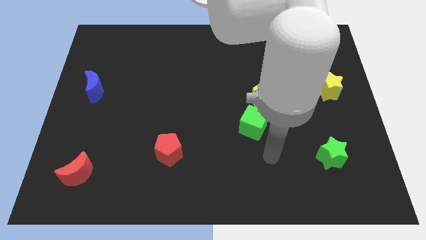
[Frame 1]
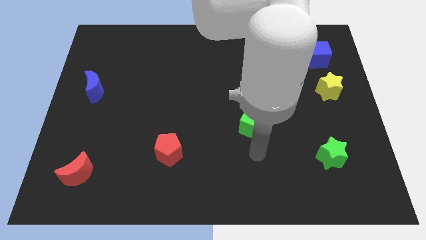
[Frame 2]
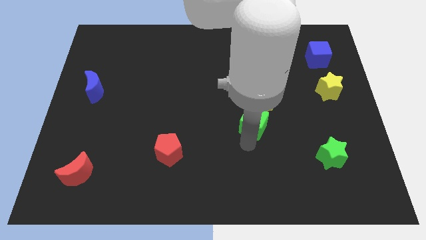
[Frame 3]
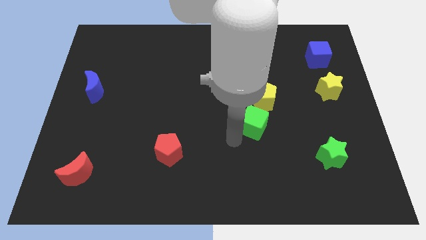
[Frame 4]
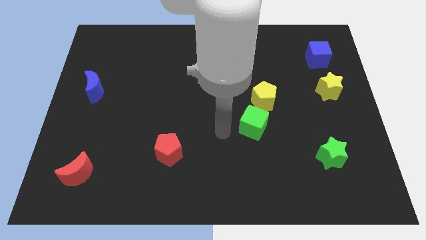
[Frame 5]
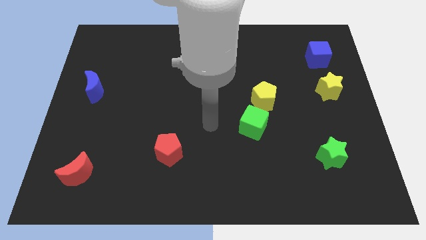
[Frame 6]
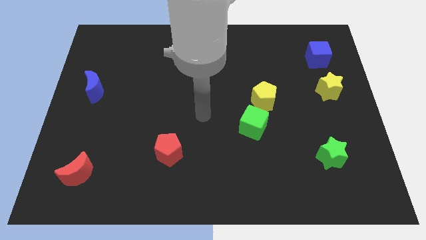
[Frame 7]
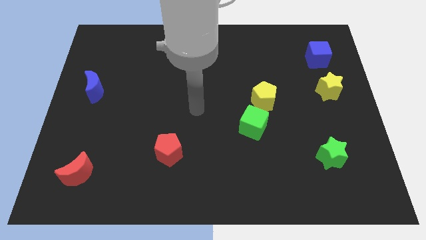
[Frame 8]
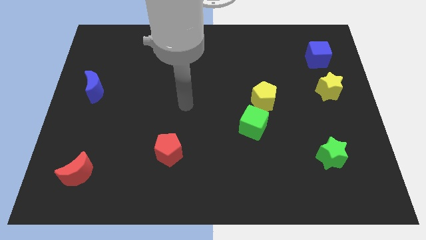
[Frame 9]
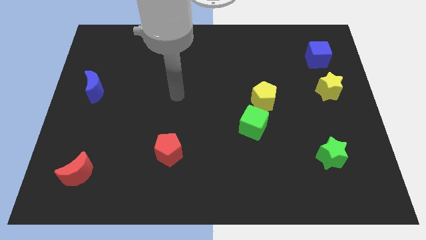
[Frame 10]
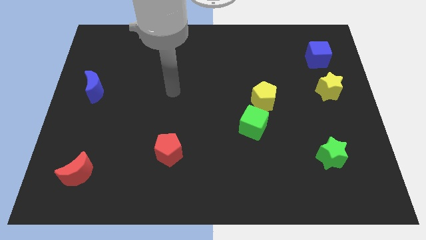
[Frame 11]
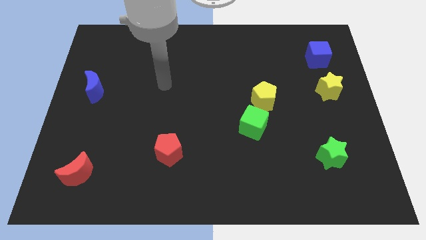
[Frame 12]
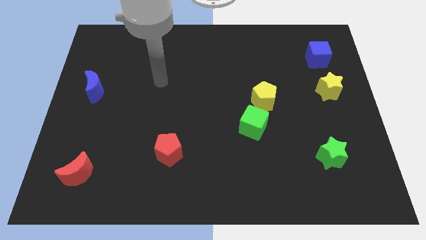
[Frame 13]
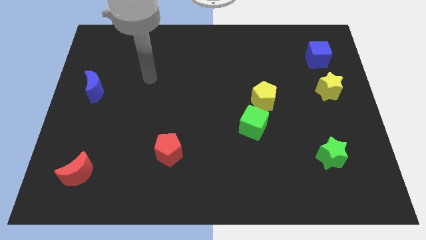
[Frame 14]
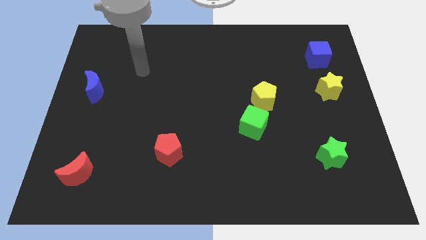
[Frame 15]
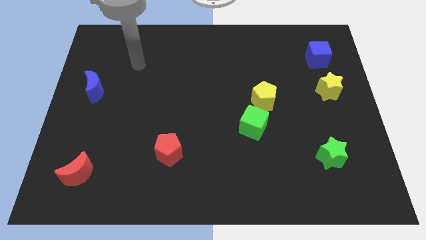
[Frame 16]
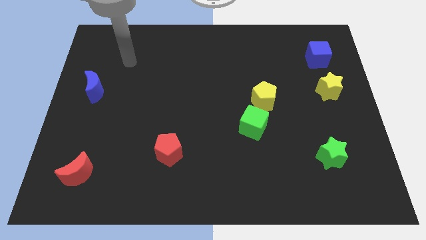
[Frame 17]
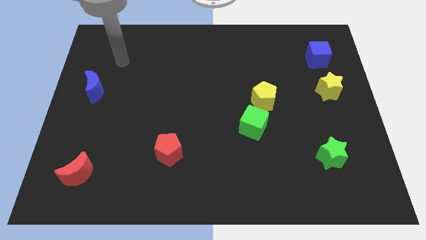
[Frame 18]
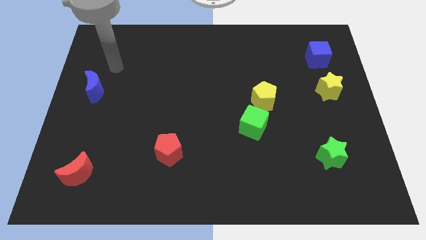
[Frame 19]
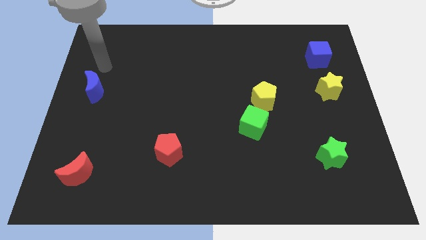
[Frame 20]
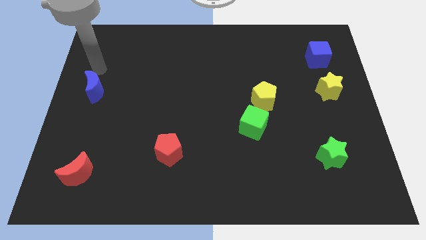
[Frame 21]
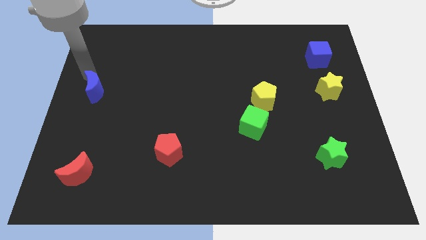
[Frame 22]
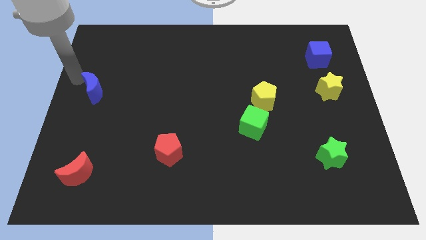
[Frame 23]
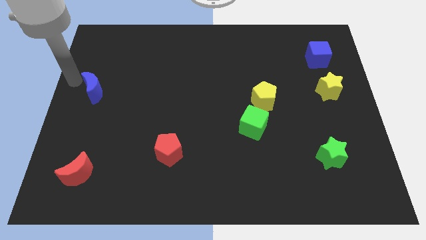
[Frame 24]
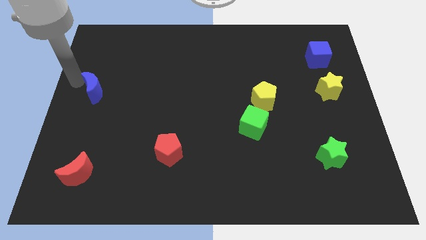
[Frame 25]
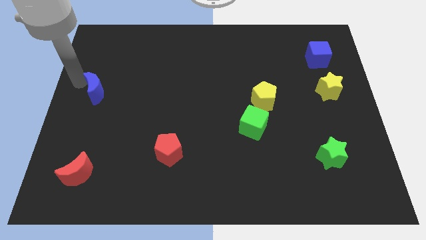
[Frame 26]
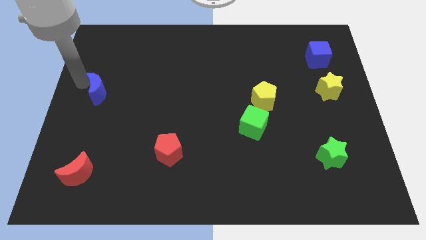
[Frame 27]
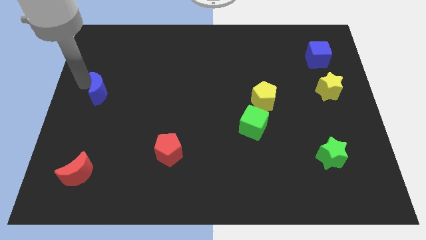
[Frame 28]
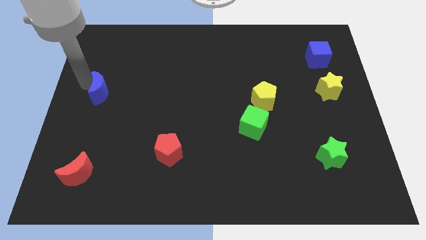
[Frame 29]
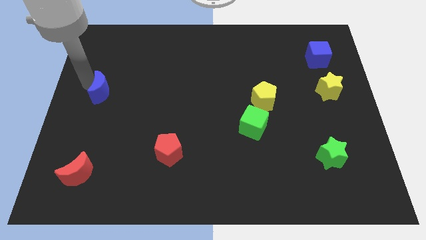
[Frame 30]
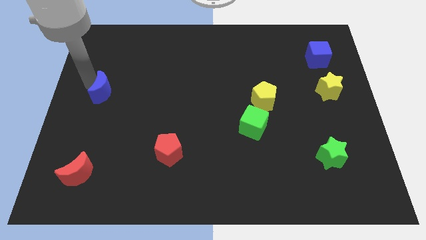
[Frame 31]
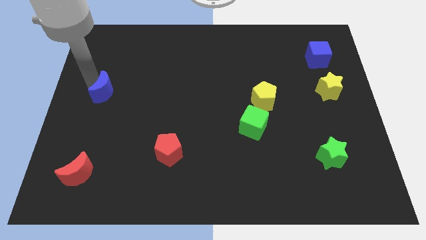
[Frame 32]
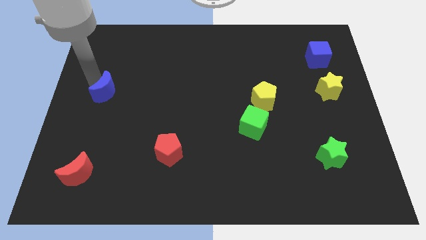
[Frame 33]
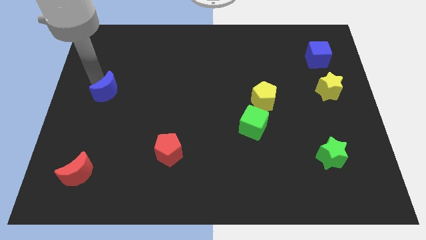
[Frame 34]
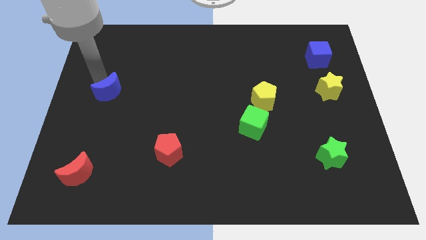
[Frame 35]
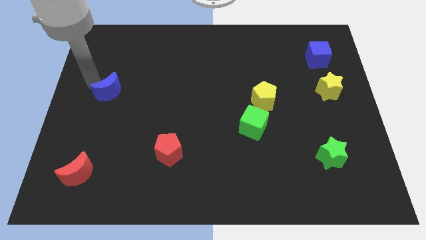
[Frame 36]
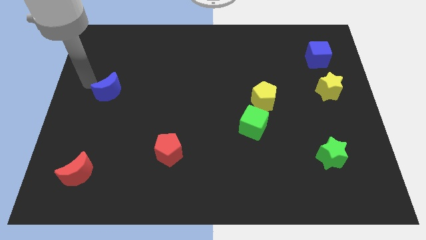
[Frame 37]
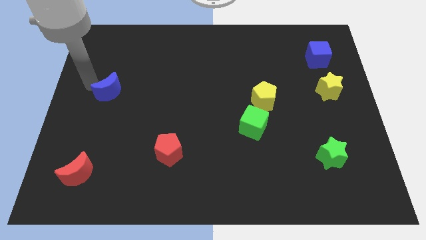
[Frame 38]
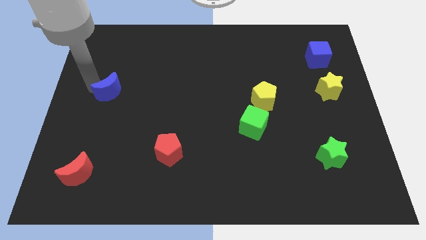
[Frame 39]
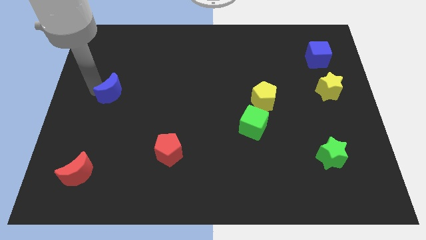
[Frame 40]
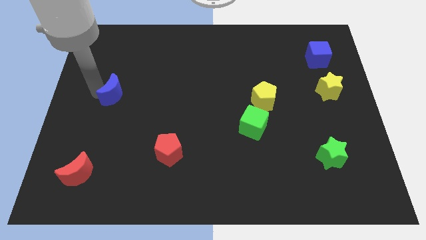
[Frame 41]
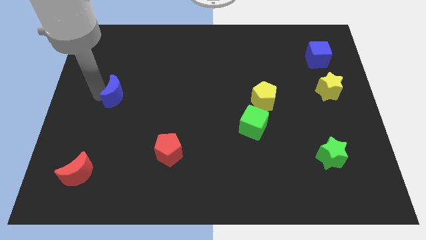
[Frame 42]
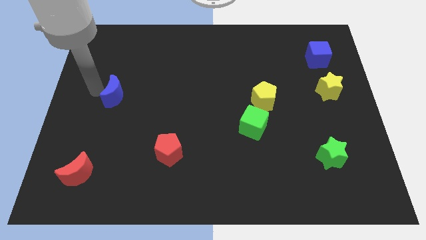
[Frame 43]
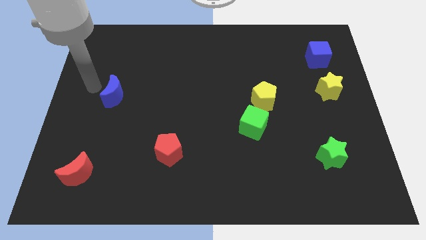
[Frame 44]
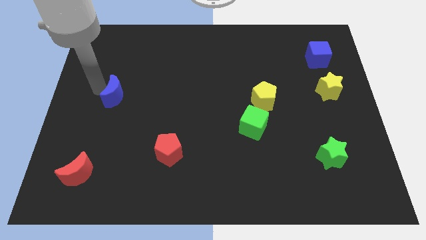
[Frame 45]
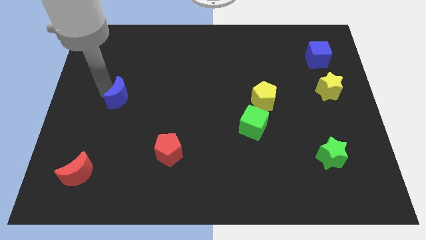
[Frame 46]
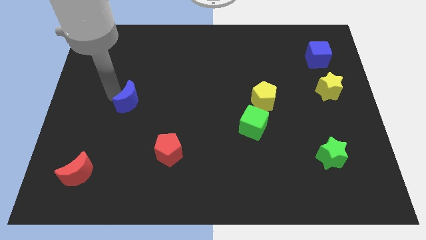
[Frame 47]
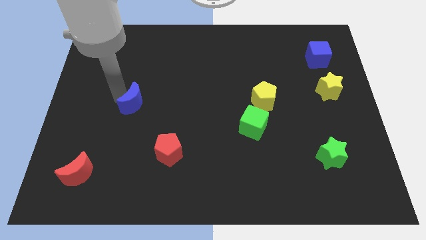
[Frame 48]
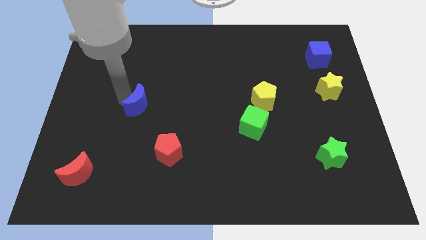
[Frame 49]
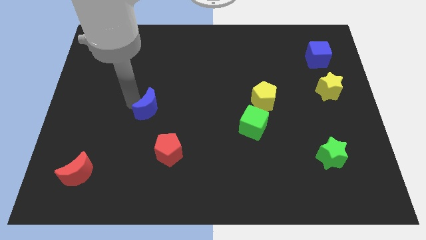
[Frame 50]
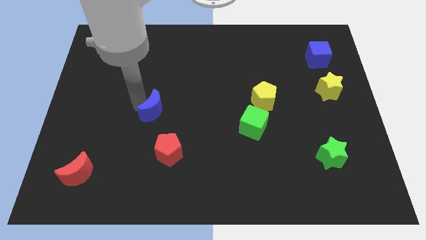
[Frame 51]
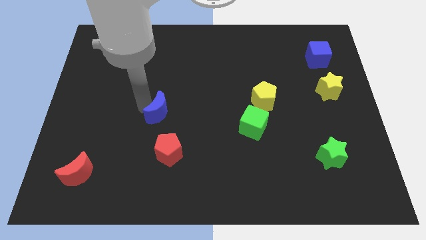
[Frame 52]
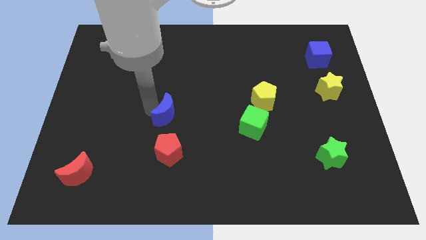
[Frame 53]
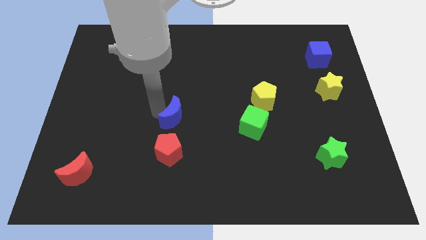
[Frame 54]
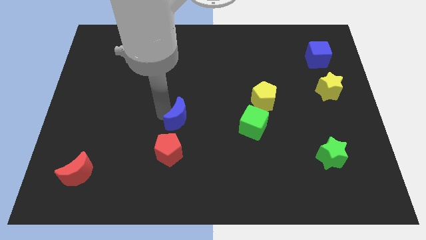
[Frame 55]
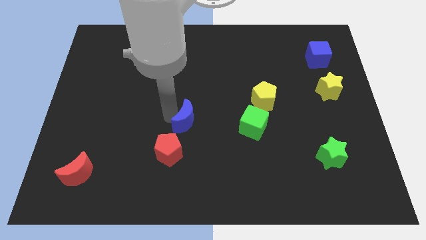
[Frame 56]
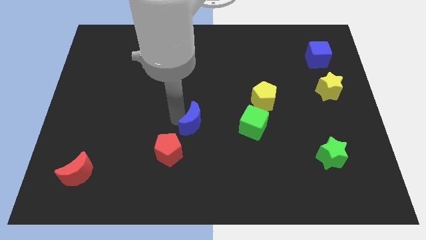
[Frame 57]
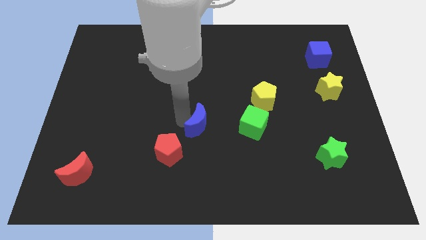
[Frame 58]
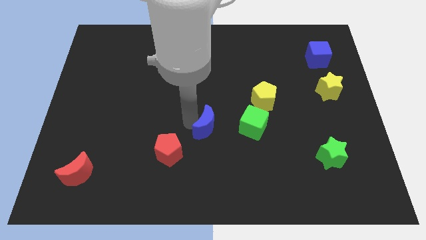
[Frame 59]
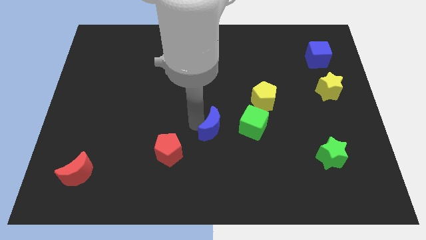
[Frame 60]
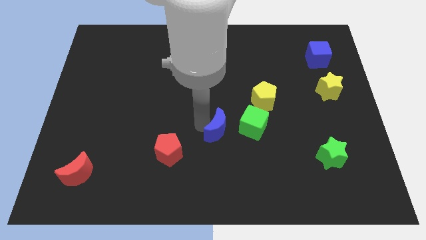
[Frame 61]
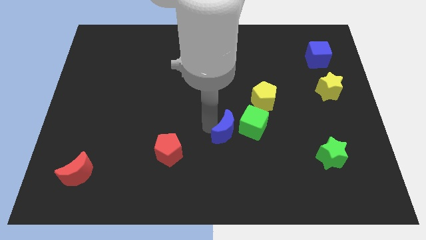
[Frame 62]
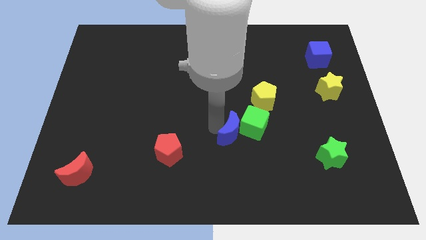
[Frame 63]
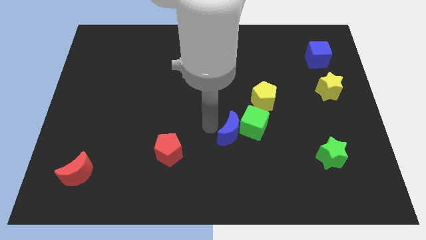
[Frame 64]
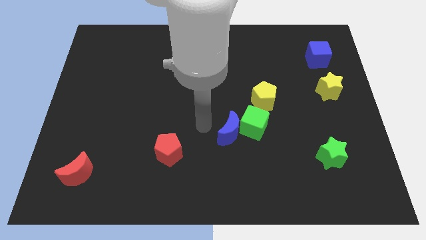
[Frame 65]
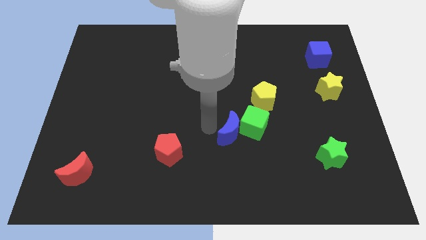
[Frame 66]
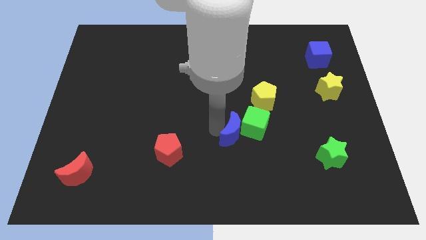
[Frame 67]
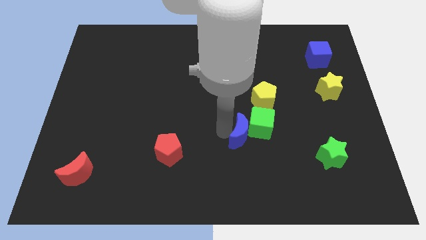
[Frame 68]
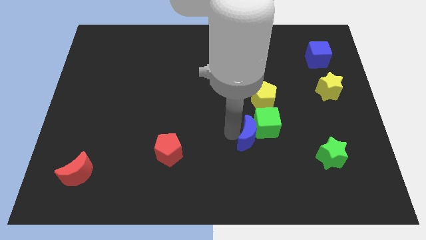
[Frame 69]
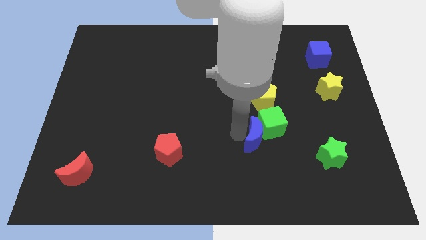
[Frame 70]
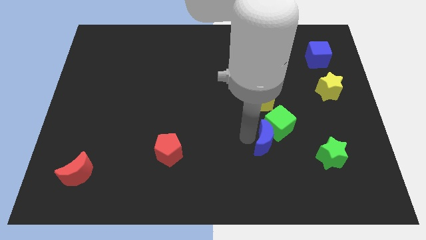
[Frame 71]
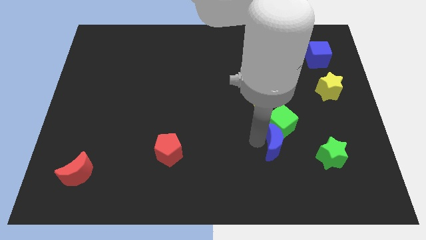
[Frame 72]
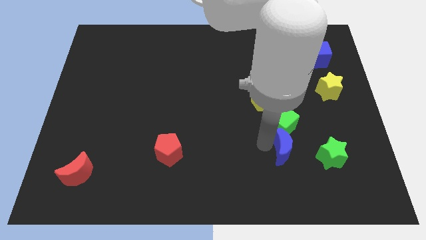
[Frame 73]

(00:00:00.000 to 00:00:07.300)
move the blue moon to the bottom right side of the green cube

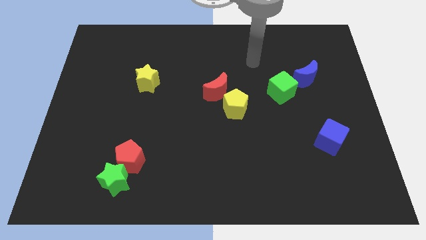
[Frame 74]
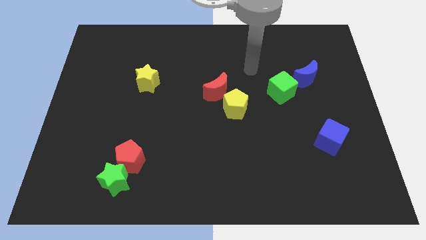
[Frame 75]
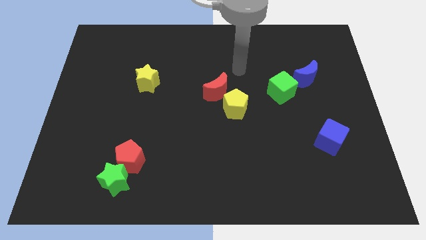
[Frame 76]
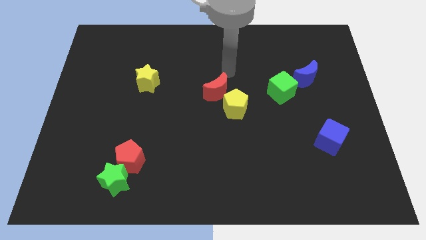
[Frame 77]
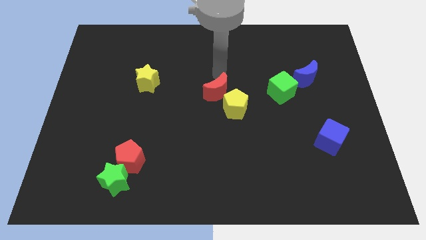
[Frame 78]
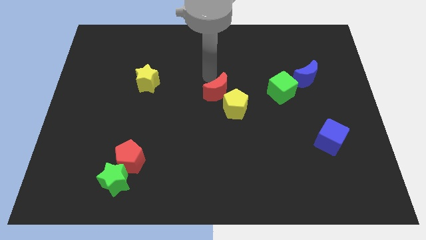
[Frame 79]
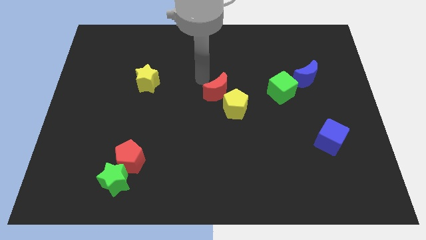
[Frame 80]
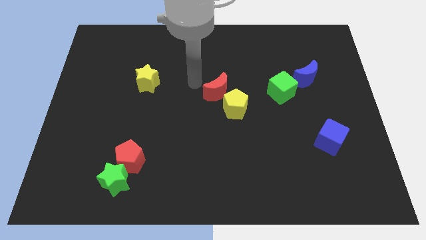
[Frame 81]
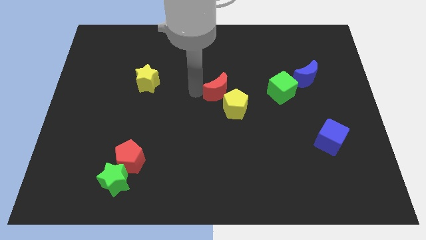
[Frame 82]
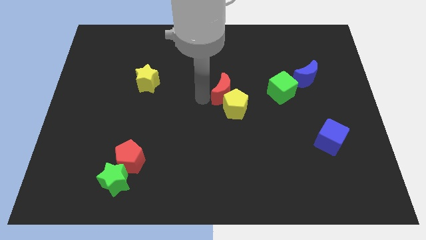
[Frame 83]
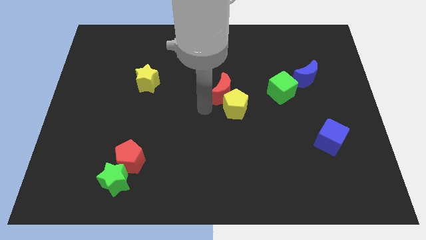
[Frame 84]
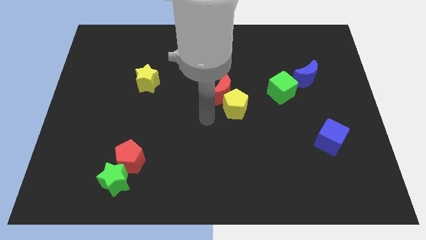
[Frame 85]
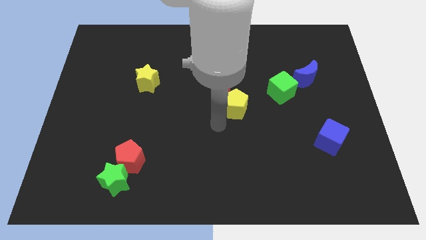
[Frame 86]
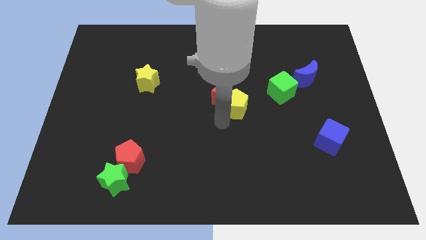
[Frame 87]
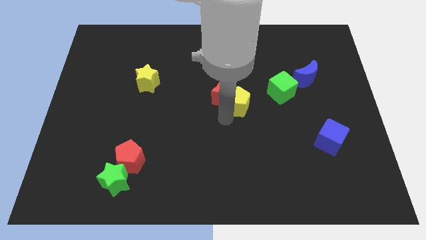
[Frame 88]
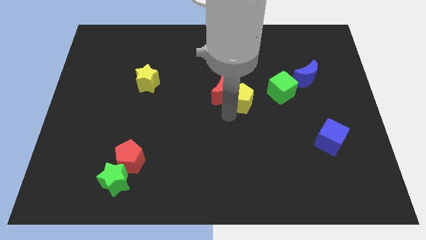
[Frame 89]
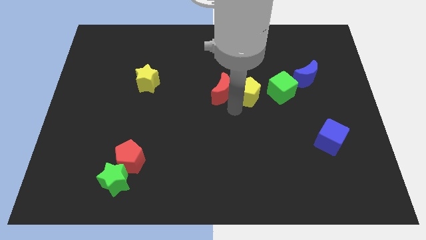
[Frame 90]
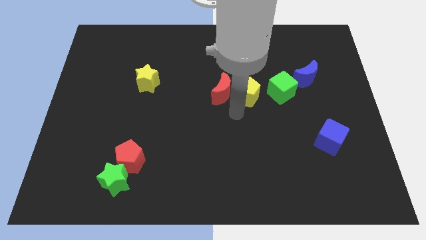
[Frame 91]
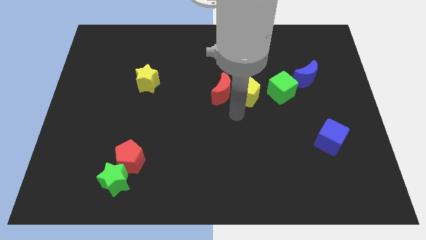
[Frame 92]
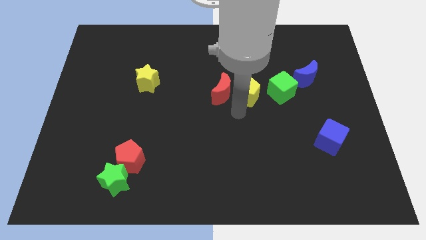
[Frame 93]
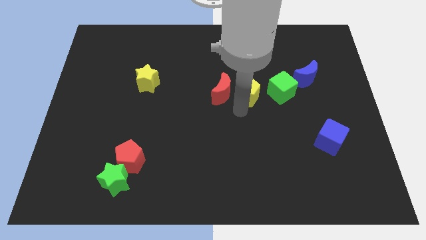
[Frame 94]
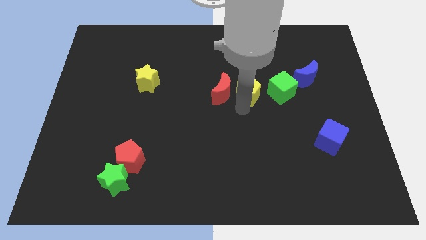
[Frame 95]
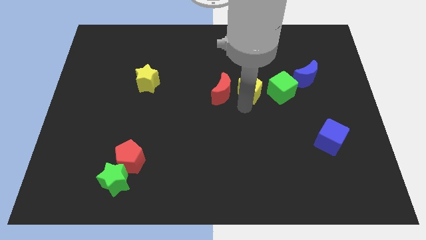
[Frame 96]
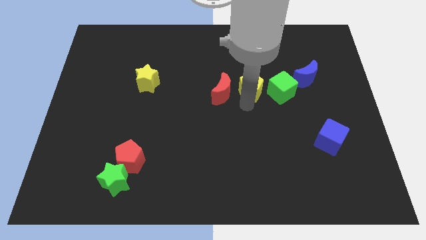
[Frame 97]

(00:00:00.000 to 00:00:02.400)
push the yellow pentagon to the top left of the green cube
